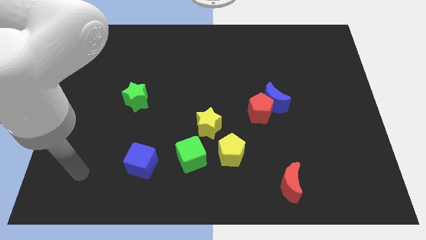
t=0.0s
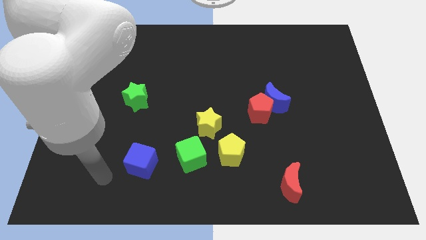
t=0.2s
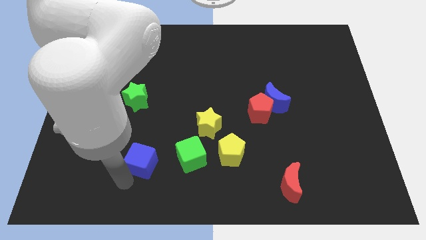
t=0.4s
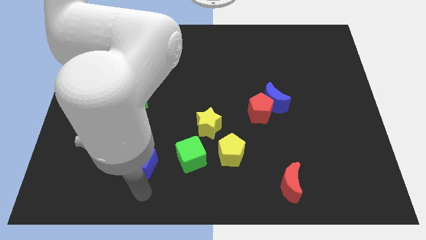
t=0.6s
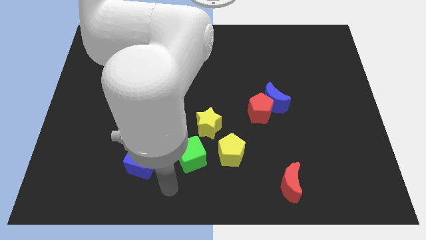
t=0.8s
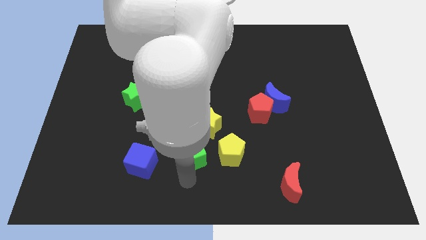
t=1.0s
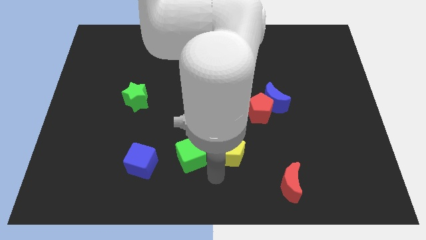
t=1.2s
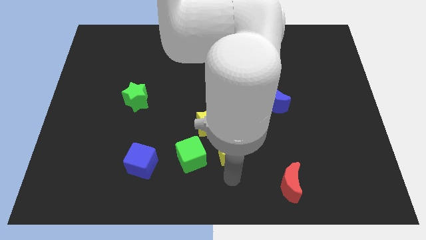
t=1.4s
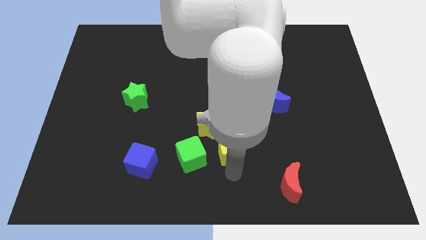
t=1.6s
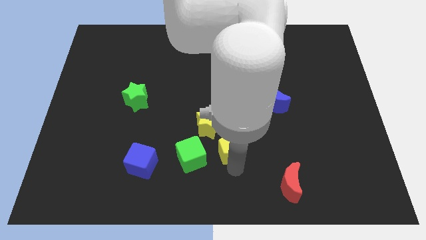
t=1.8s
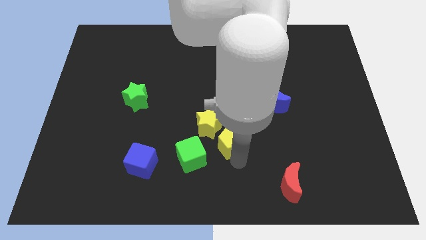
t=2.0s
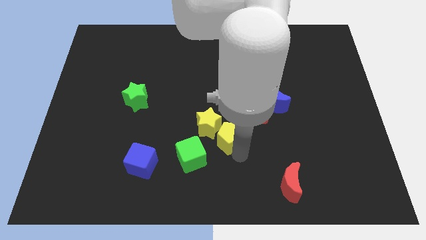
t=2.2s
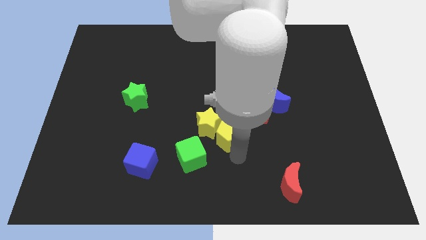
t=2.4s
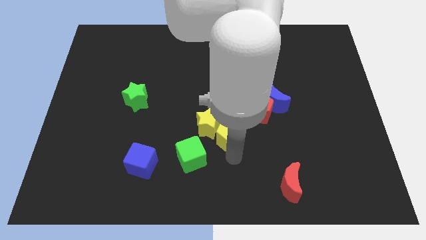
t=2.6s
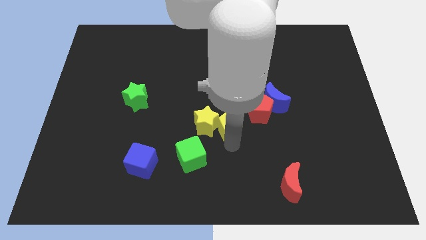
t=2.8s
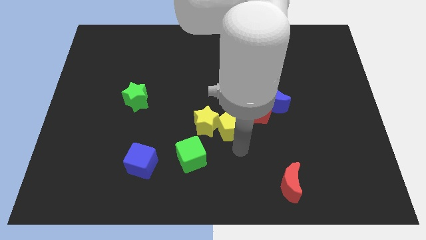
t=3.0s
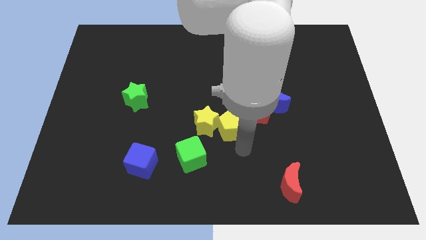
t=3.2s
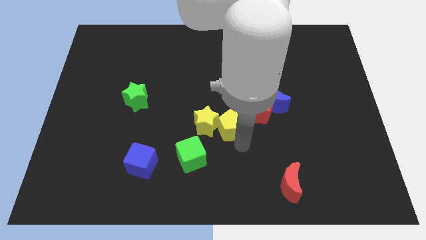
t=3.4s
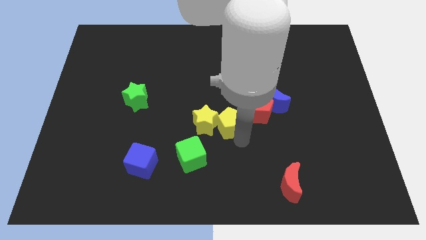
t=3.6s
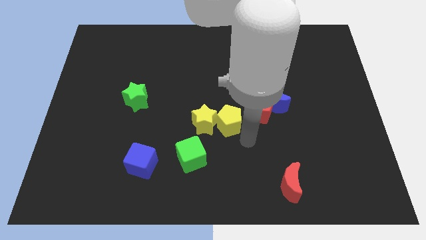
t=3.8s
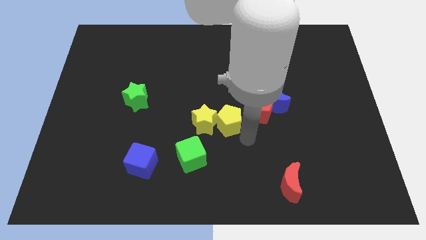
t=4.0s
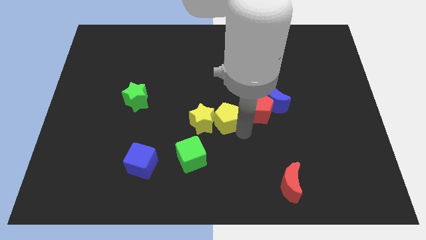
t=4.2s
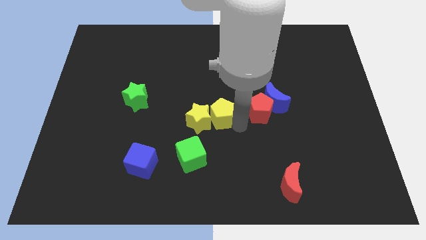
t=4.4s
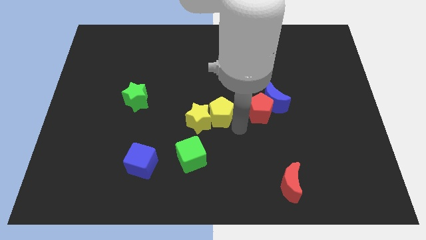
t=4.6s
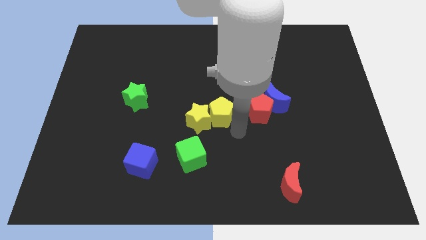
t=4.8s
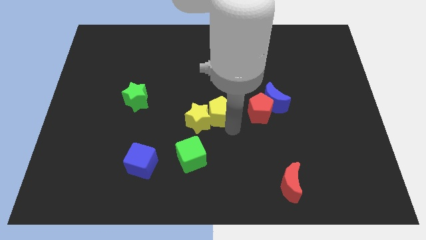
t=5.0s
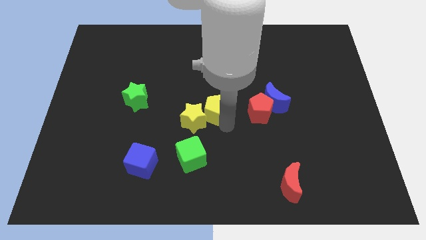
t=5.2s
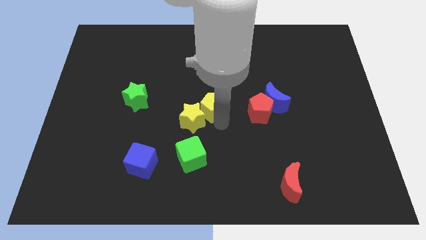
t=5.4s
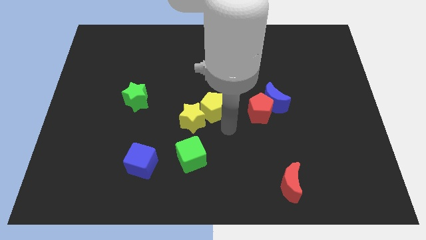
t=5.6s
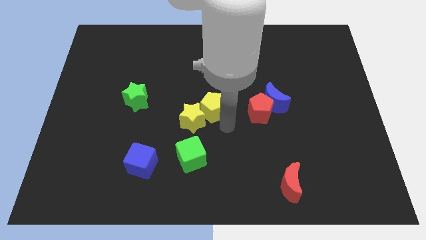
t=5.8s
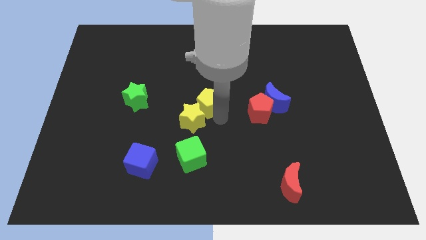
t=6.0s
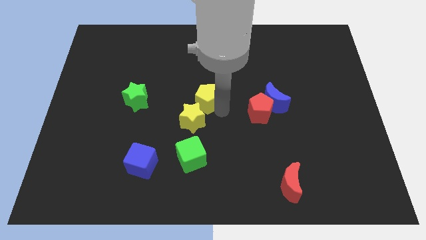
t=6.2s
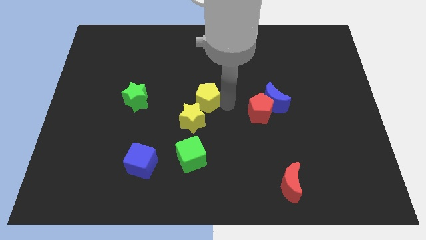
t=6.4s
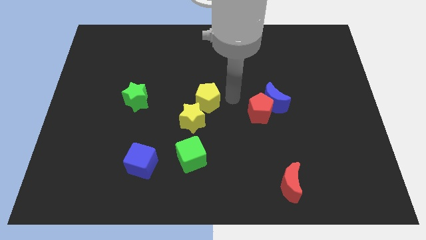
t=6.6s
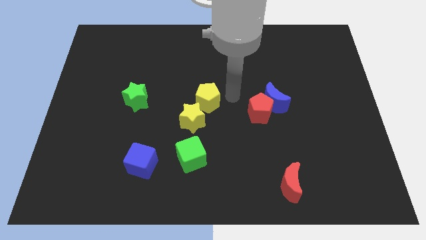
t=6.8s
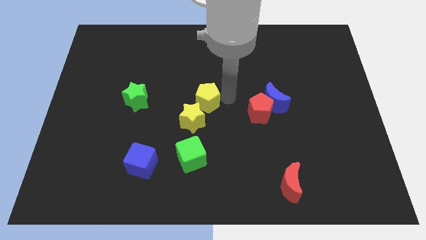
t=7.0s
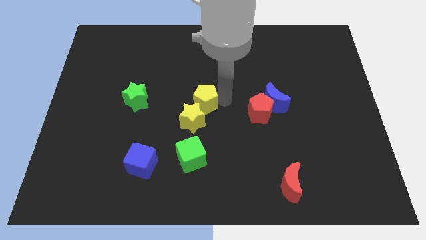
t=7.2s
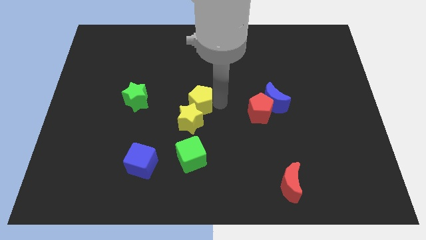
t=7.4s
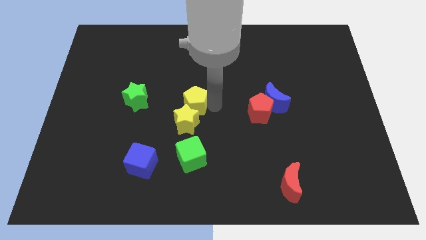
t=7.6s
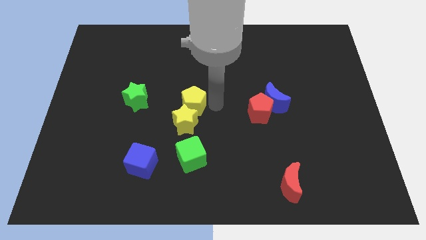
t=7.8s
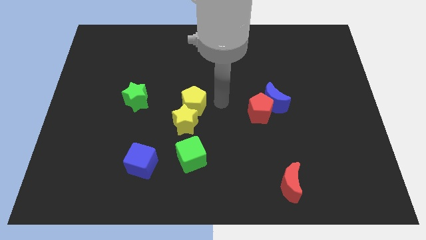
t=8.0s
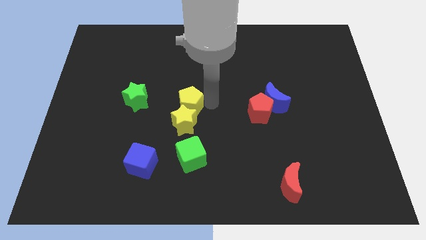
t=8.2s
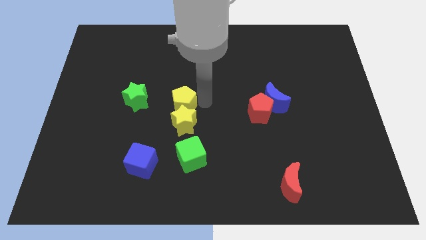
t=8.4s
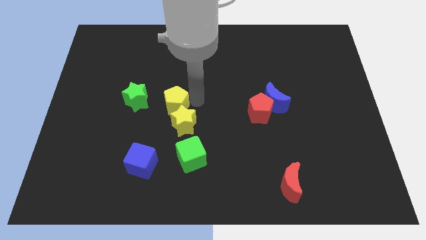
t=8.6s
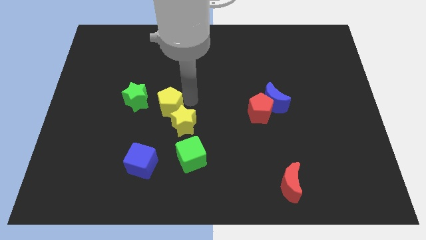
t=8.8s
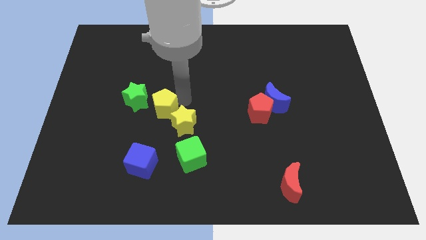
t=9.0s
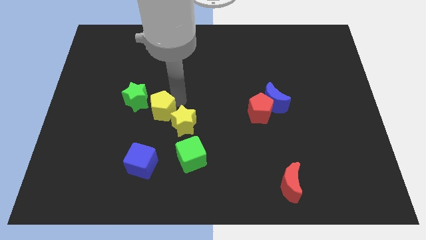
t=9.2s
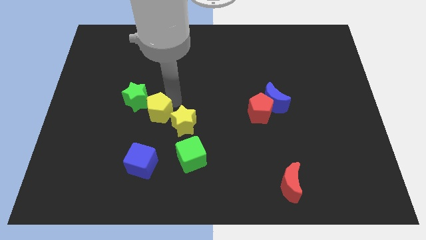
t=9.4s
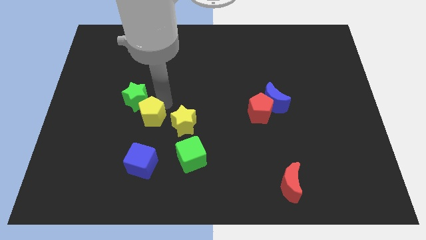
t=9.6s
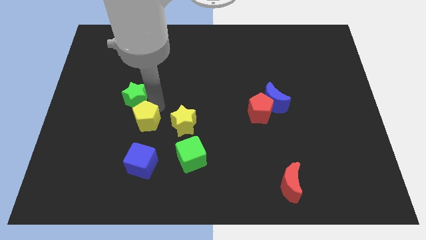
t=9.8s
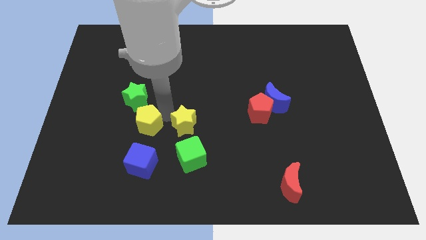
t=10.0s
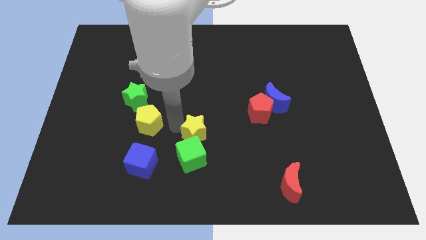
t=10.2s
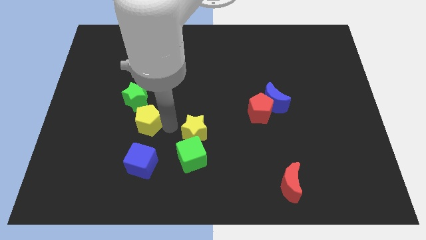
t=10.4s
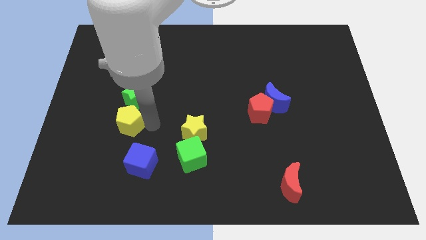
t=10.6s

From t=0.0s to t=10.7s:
slide the yellow pentagon to the bottom left side of the green star

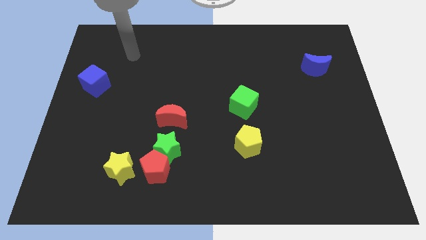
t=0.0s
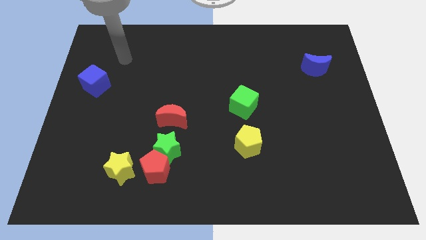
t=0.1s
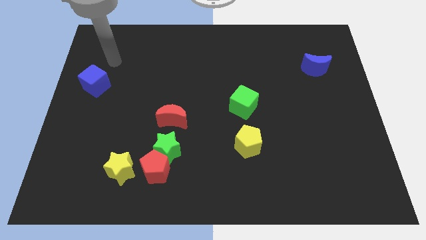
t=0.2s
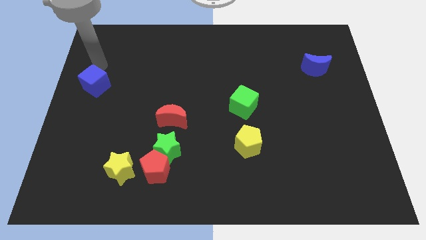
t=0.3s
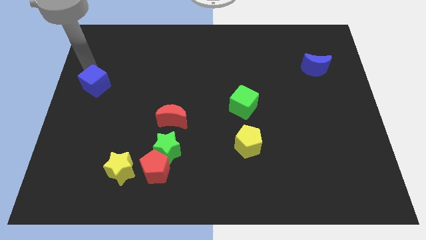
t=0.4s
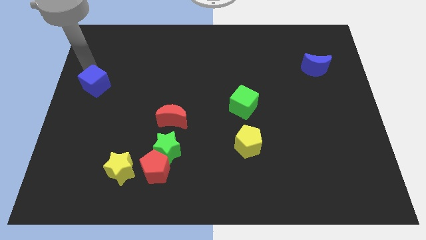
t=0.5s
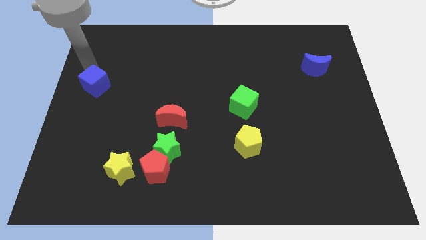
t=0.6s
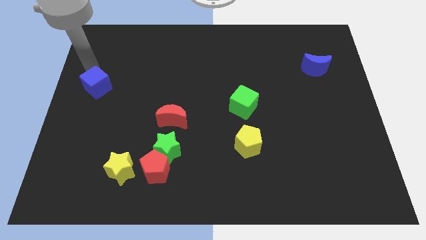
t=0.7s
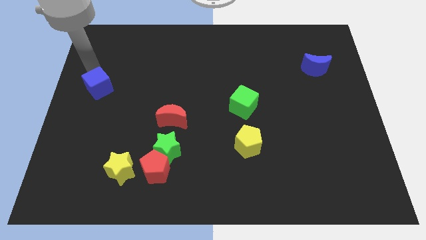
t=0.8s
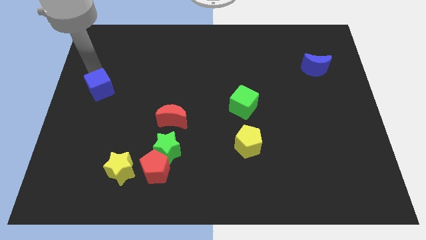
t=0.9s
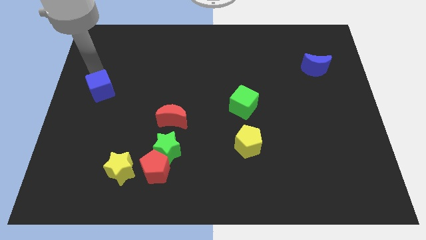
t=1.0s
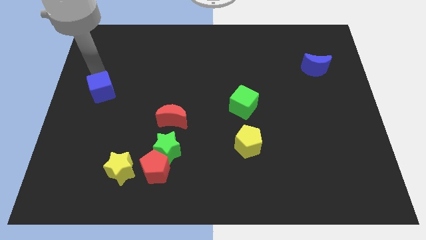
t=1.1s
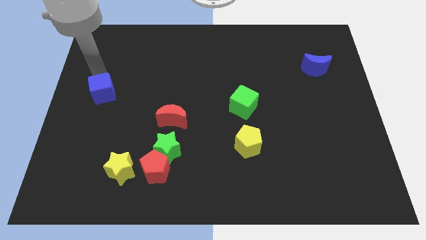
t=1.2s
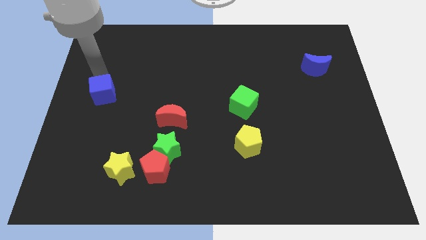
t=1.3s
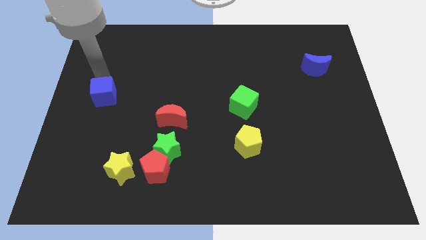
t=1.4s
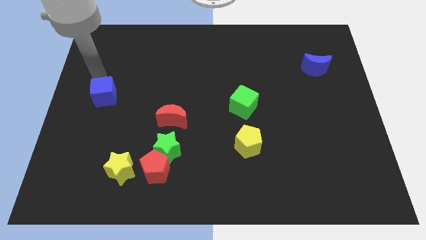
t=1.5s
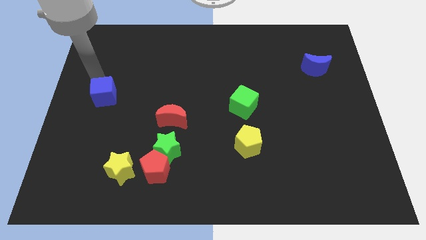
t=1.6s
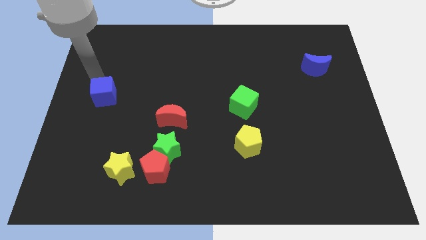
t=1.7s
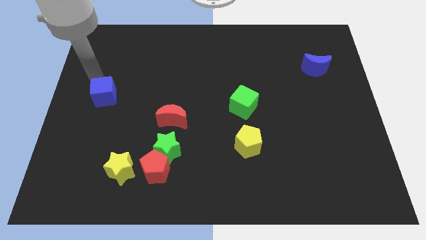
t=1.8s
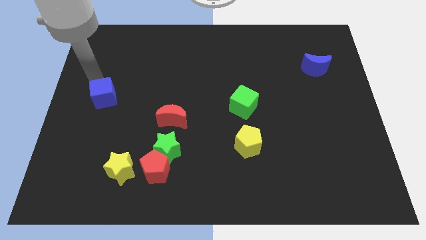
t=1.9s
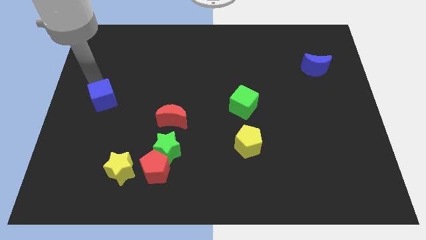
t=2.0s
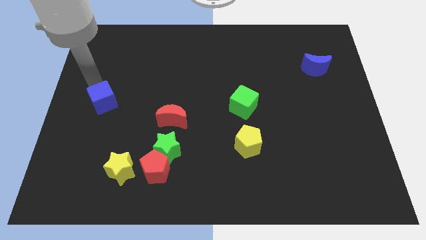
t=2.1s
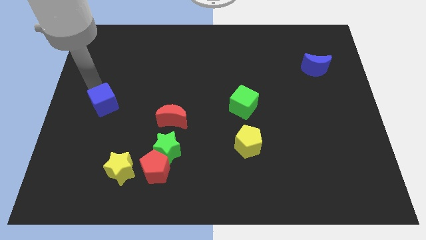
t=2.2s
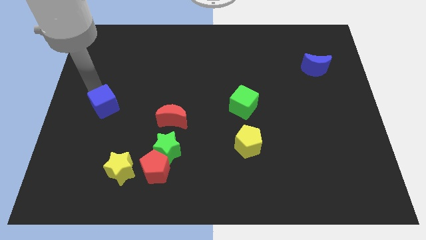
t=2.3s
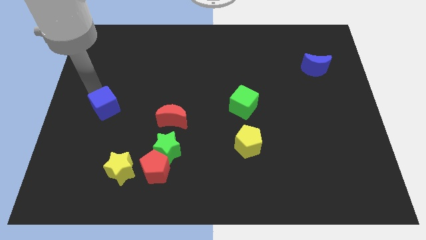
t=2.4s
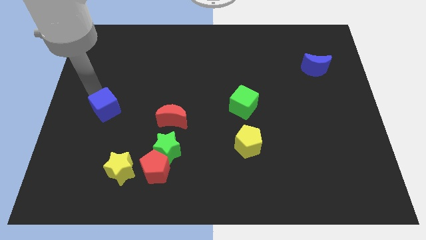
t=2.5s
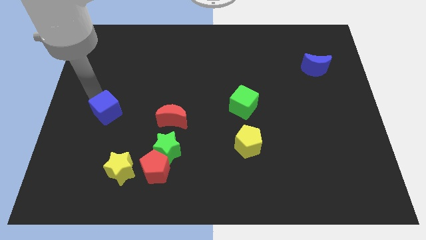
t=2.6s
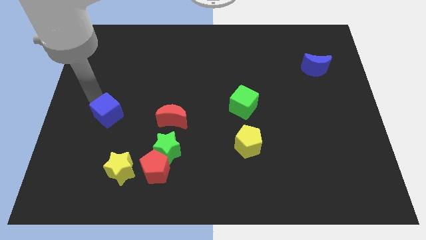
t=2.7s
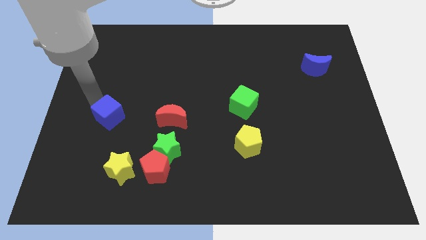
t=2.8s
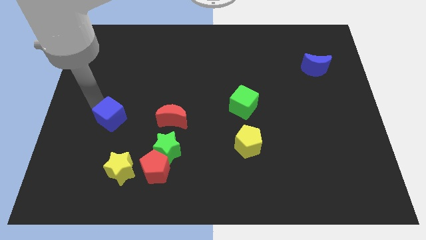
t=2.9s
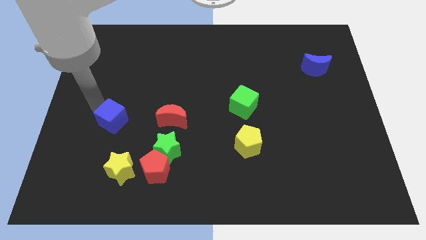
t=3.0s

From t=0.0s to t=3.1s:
slide the blue cube to the top of the yellow star
